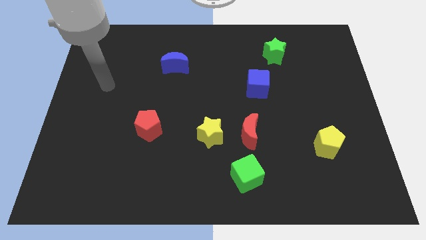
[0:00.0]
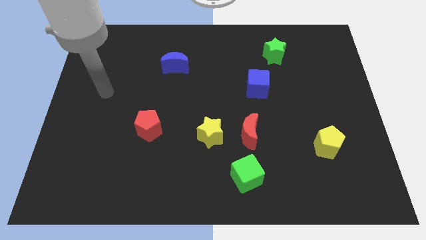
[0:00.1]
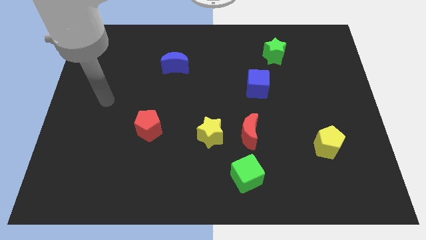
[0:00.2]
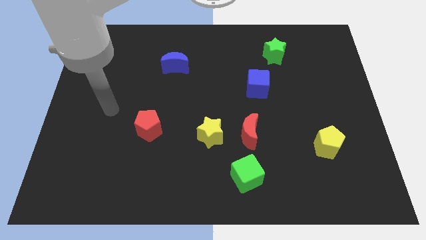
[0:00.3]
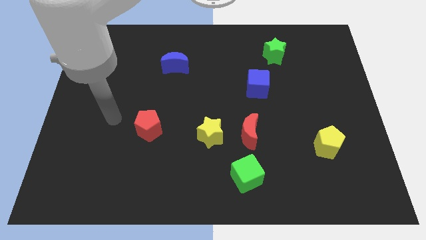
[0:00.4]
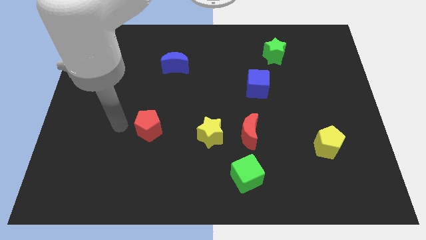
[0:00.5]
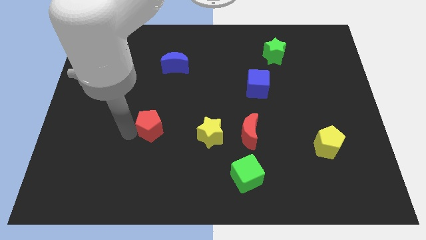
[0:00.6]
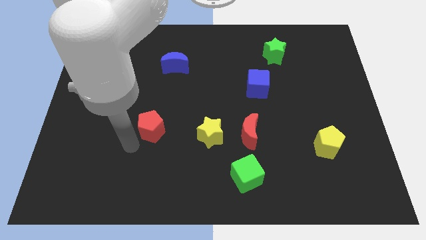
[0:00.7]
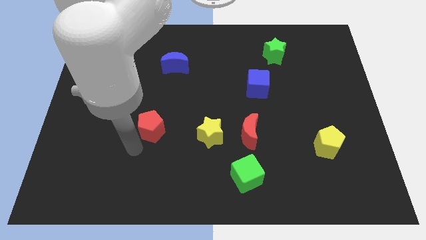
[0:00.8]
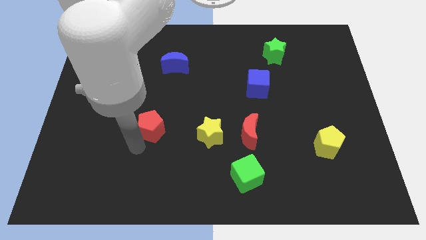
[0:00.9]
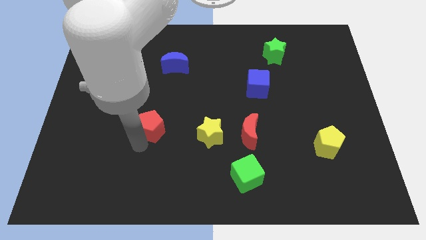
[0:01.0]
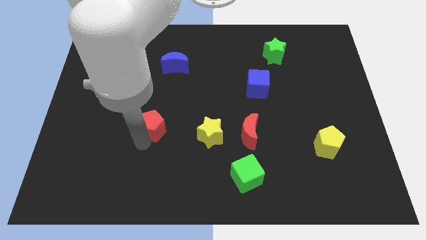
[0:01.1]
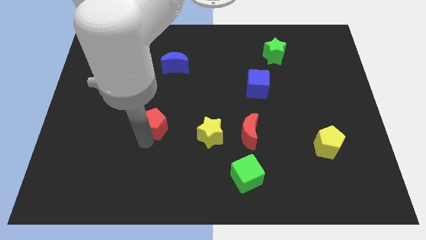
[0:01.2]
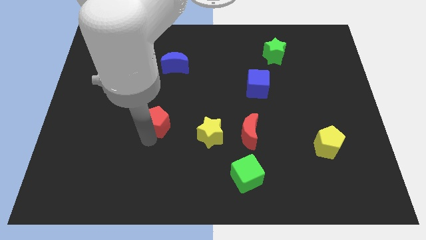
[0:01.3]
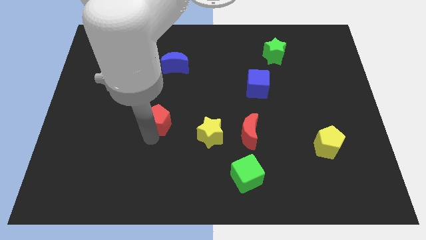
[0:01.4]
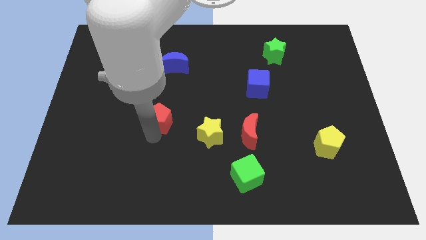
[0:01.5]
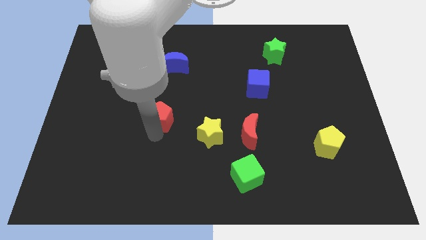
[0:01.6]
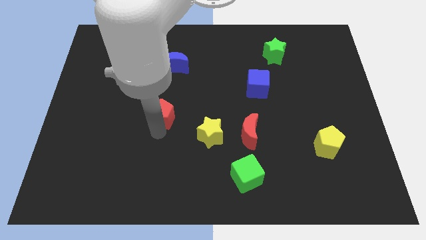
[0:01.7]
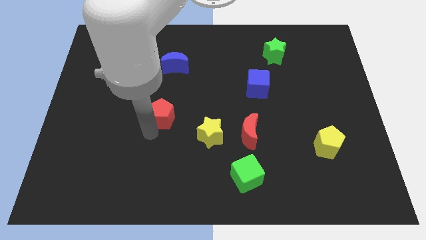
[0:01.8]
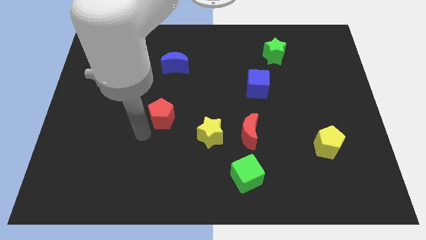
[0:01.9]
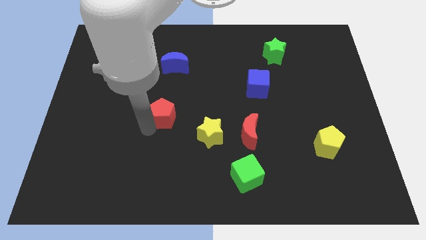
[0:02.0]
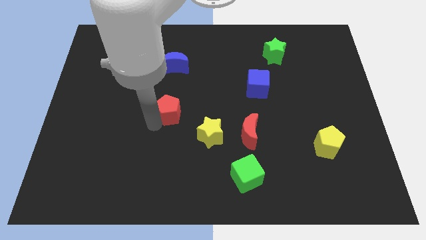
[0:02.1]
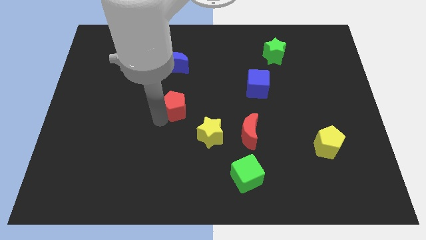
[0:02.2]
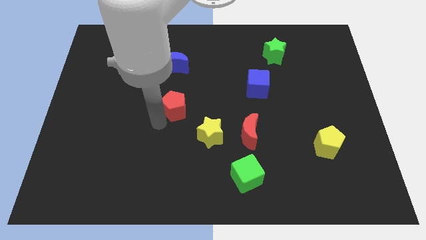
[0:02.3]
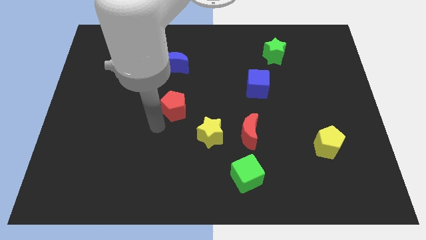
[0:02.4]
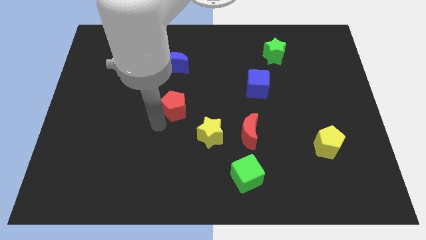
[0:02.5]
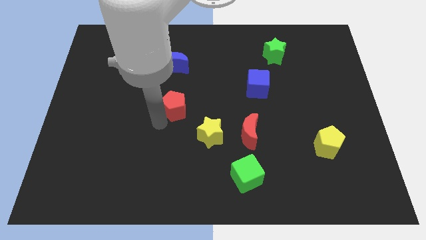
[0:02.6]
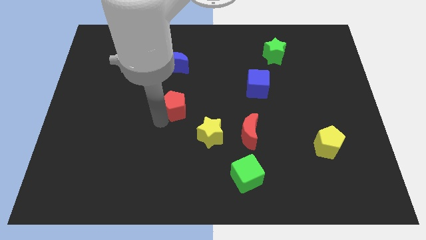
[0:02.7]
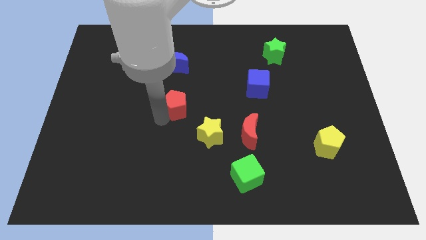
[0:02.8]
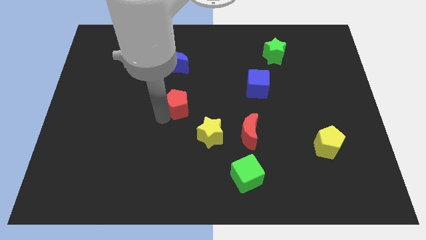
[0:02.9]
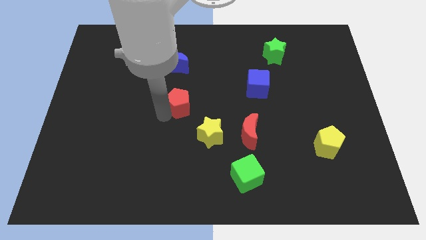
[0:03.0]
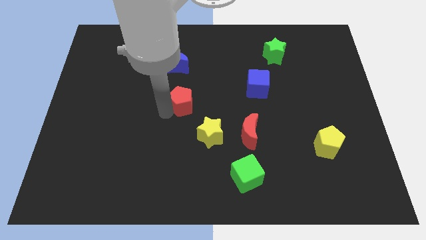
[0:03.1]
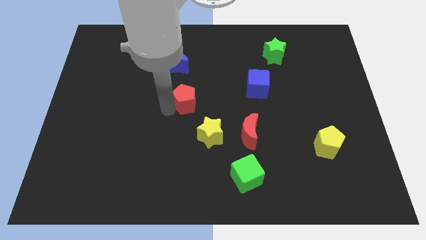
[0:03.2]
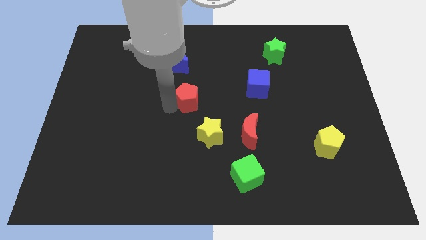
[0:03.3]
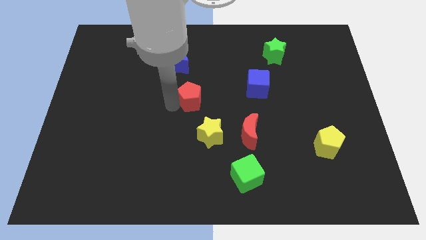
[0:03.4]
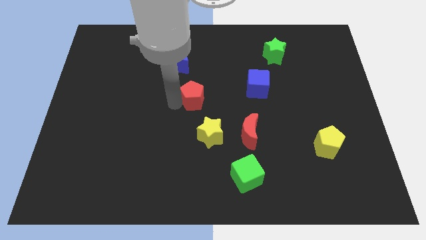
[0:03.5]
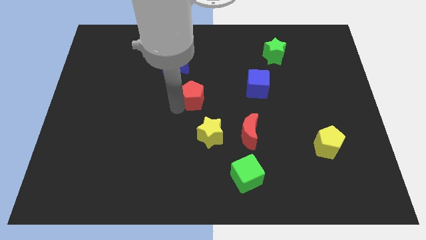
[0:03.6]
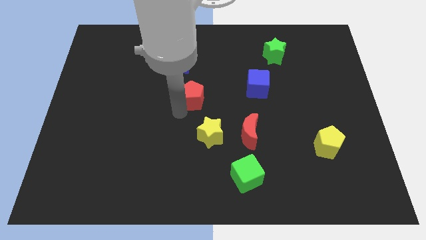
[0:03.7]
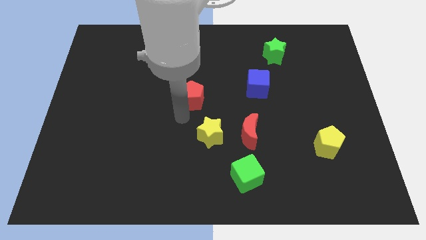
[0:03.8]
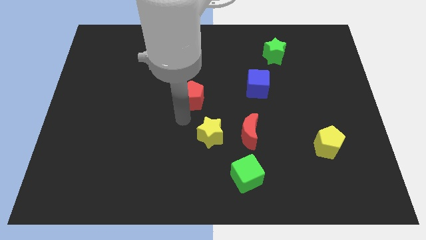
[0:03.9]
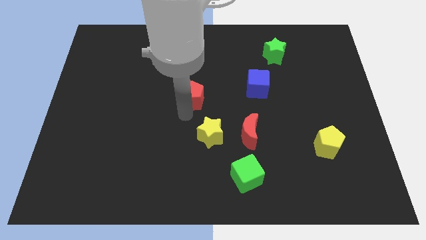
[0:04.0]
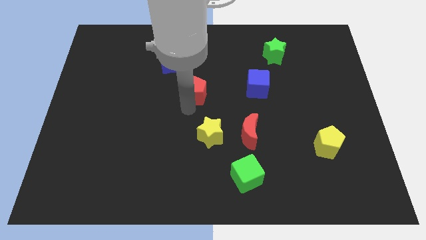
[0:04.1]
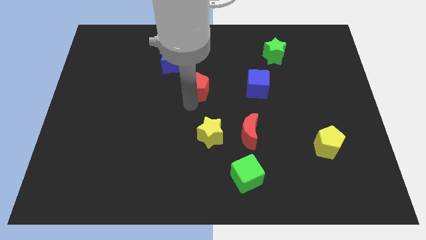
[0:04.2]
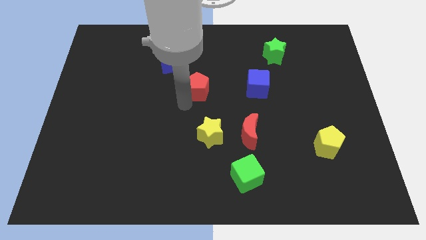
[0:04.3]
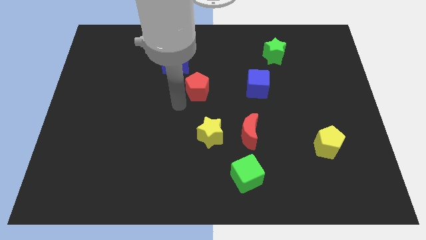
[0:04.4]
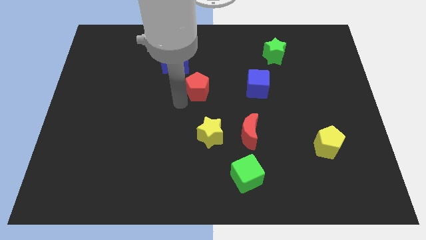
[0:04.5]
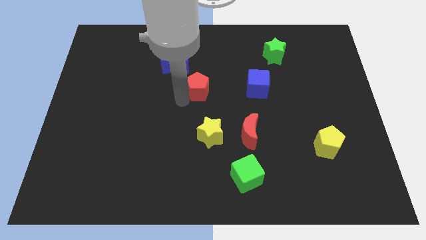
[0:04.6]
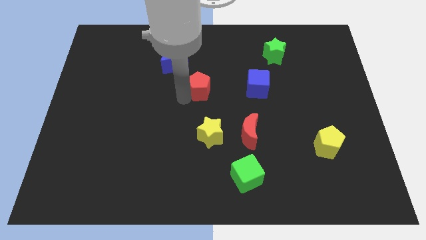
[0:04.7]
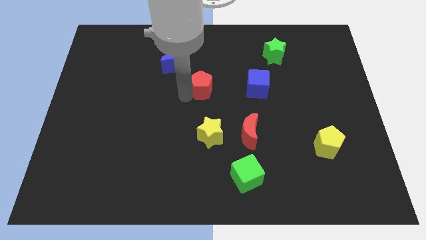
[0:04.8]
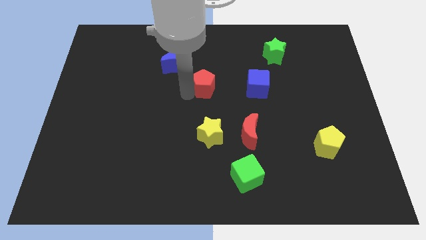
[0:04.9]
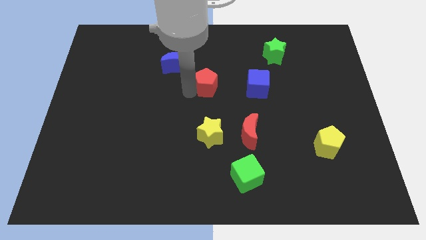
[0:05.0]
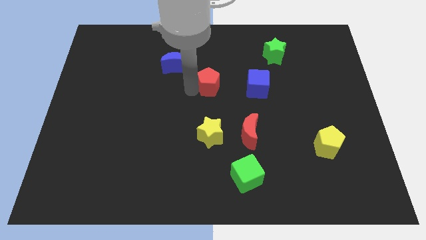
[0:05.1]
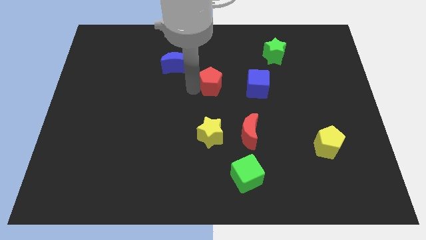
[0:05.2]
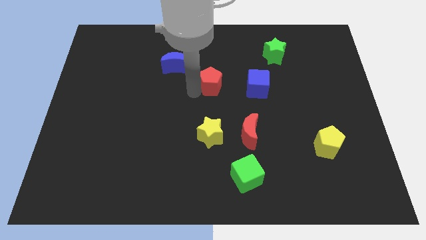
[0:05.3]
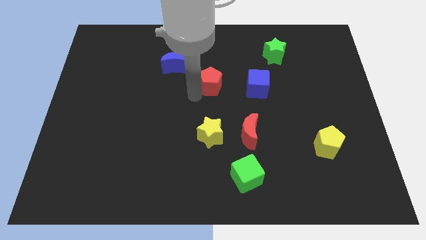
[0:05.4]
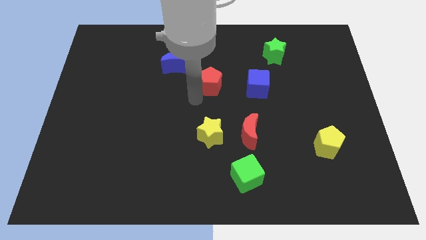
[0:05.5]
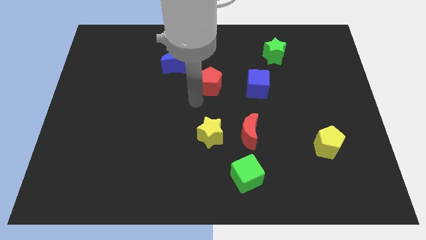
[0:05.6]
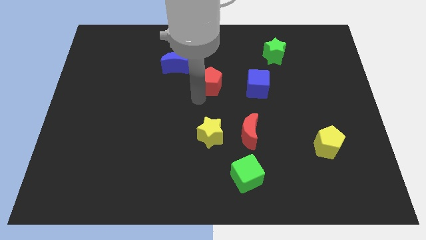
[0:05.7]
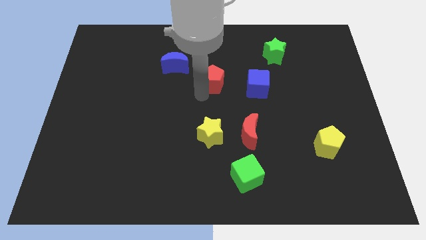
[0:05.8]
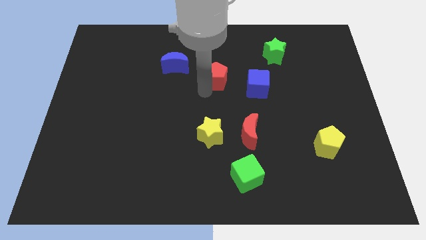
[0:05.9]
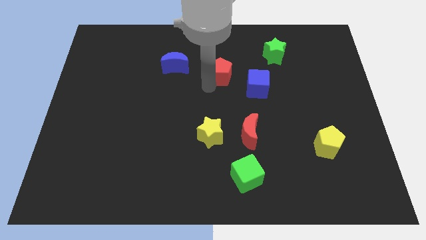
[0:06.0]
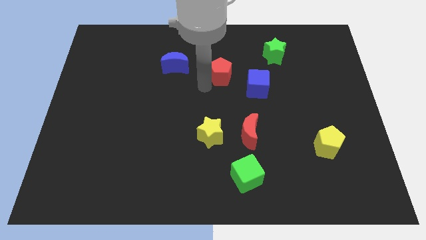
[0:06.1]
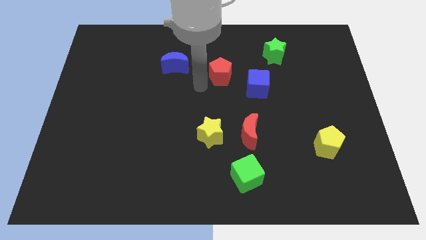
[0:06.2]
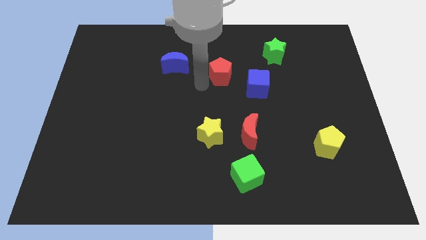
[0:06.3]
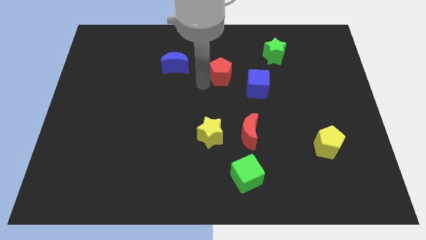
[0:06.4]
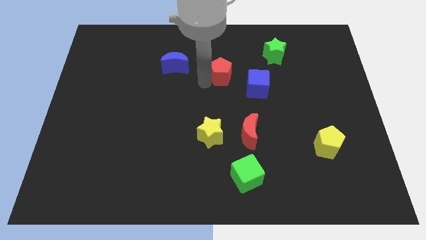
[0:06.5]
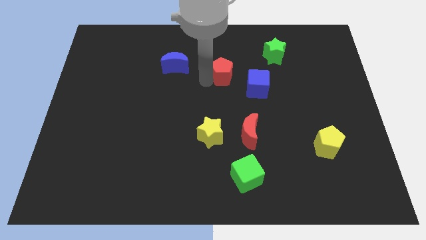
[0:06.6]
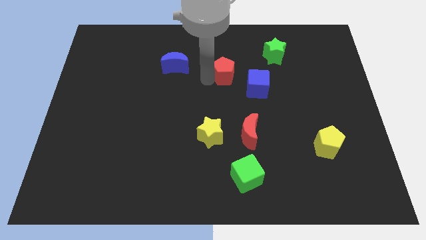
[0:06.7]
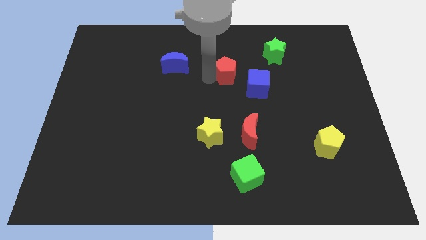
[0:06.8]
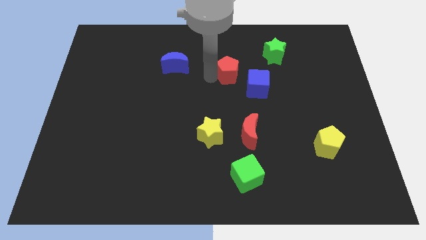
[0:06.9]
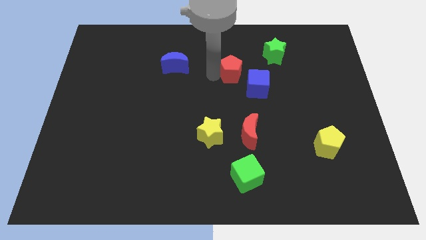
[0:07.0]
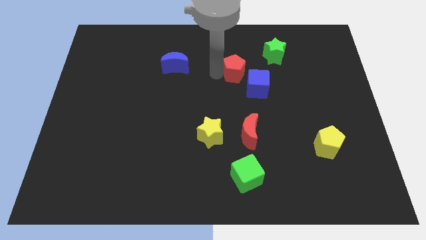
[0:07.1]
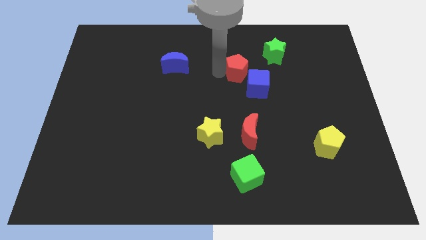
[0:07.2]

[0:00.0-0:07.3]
put the red pentagon to the top of the blue cube
